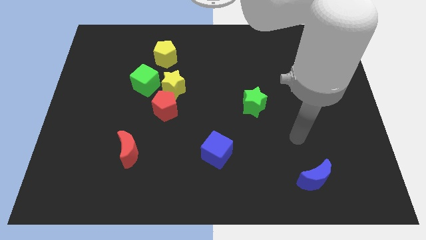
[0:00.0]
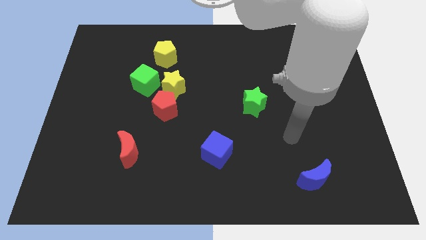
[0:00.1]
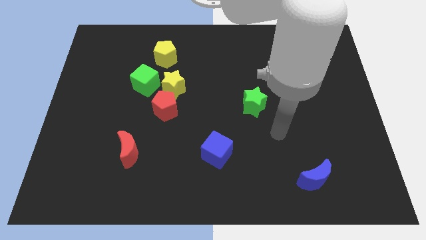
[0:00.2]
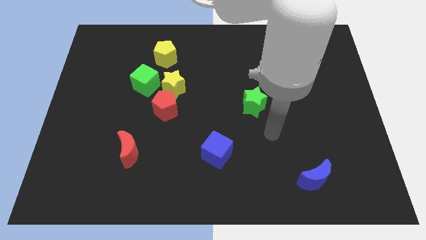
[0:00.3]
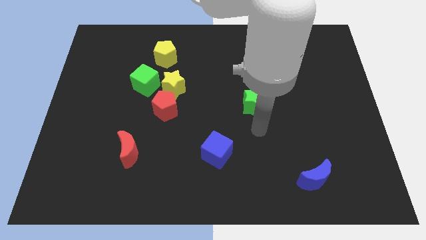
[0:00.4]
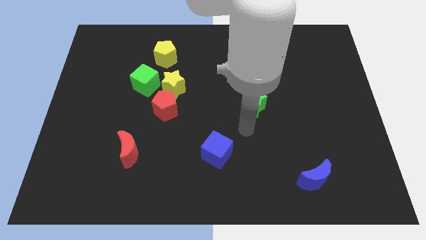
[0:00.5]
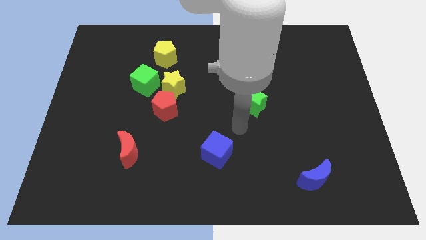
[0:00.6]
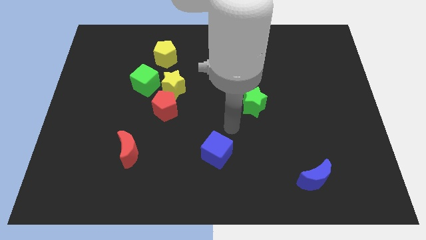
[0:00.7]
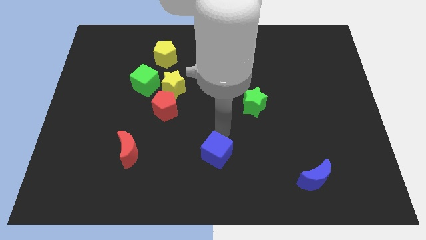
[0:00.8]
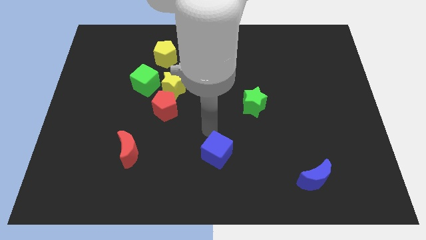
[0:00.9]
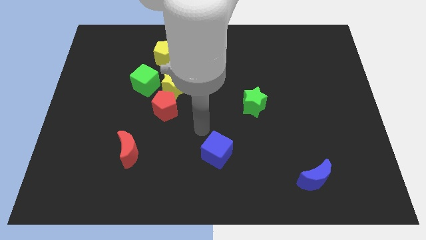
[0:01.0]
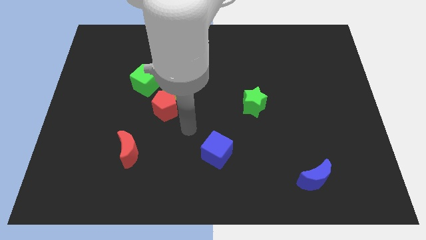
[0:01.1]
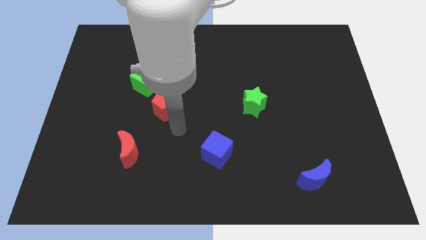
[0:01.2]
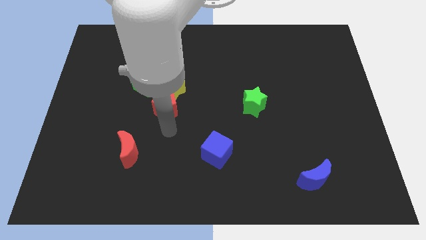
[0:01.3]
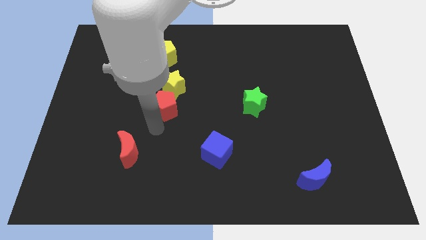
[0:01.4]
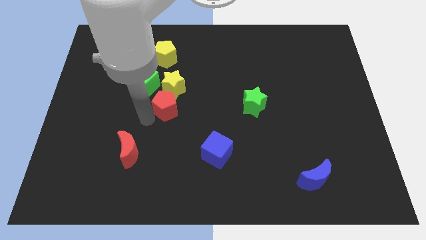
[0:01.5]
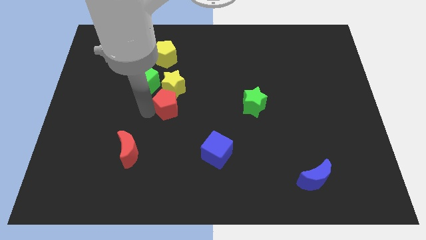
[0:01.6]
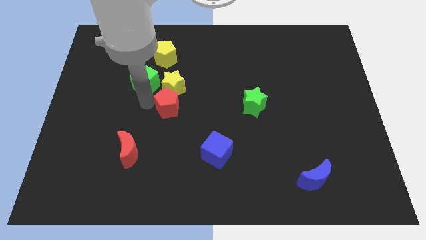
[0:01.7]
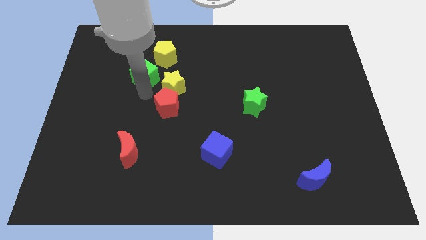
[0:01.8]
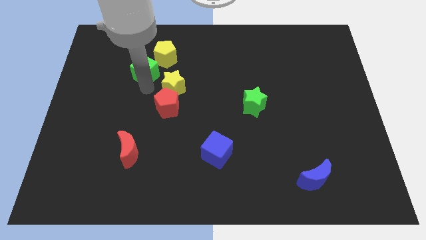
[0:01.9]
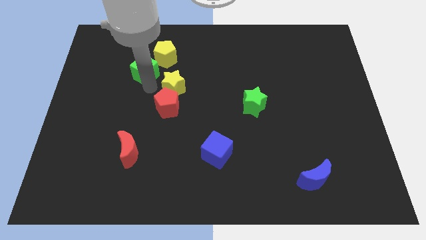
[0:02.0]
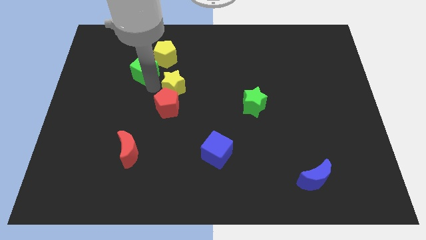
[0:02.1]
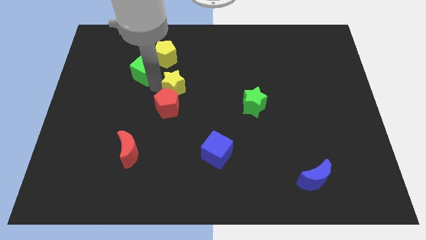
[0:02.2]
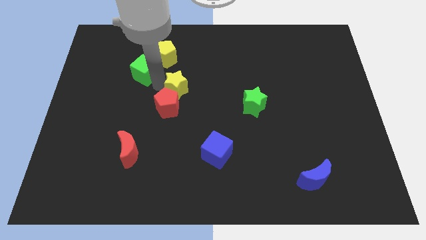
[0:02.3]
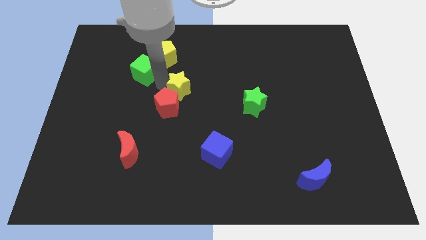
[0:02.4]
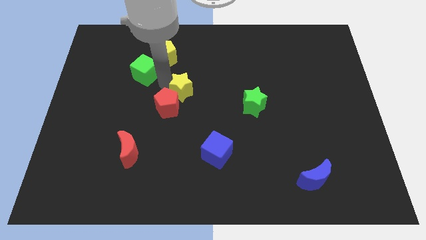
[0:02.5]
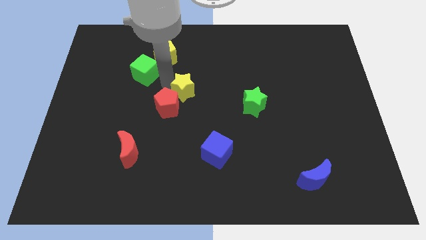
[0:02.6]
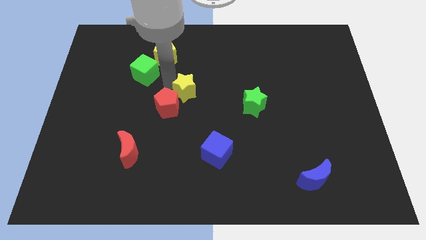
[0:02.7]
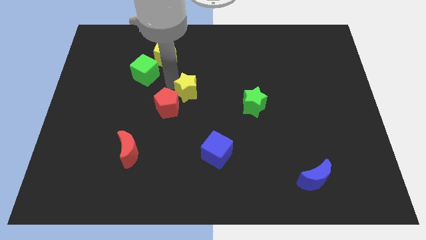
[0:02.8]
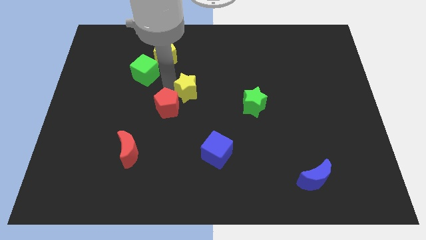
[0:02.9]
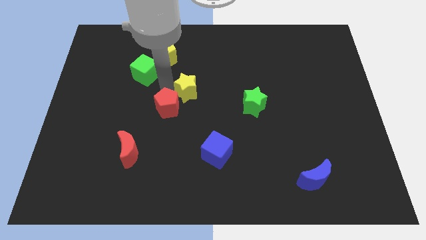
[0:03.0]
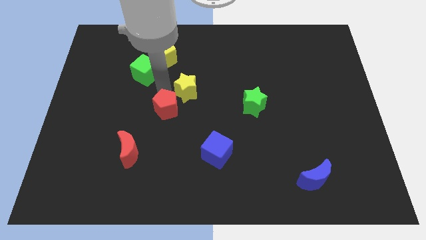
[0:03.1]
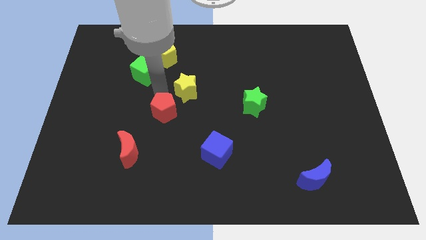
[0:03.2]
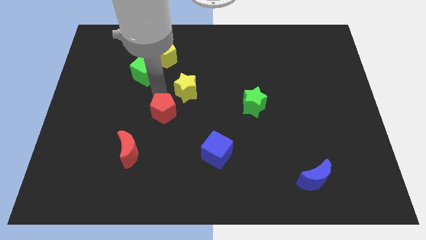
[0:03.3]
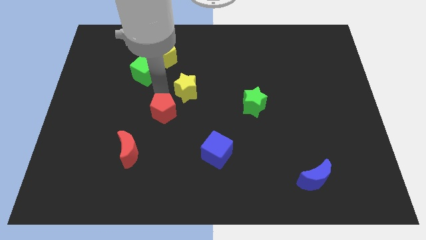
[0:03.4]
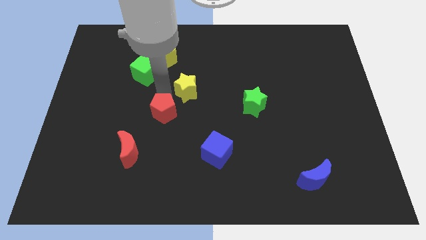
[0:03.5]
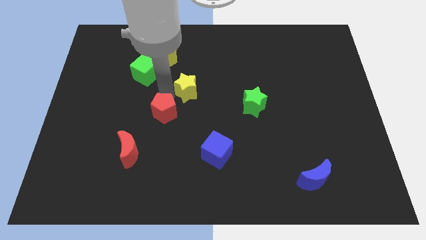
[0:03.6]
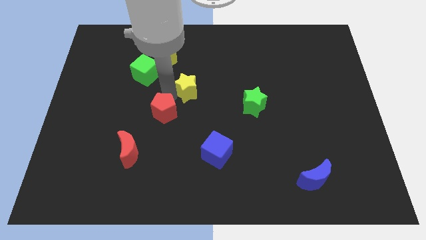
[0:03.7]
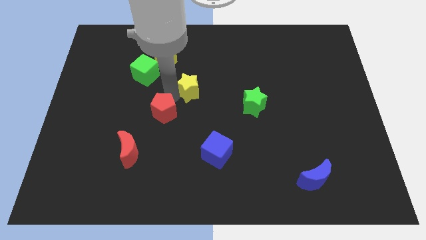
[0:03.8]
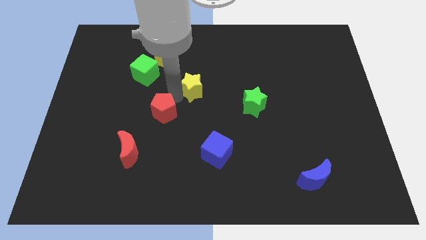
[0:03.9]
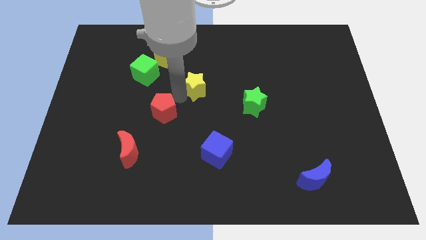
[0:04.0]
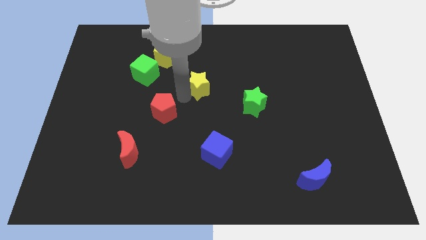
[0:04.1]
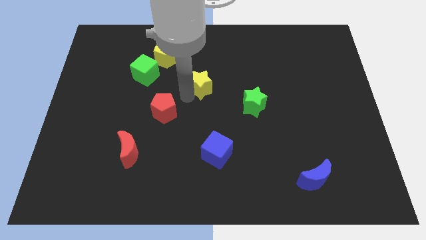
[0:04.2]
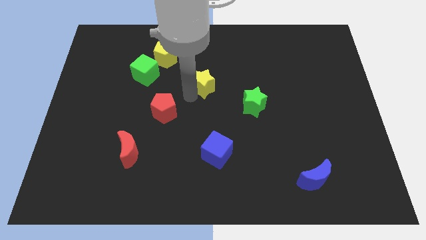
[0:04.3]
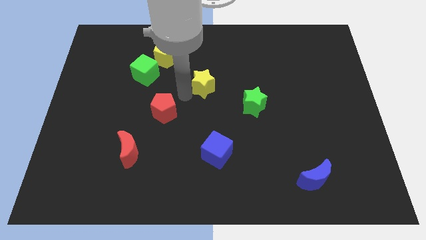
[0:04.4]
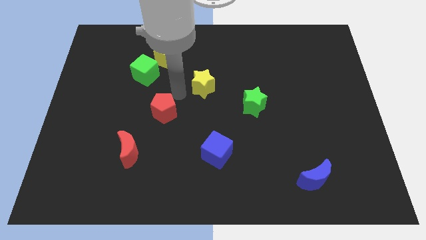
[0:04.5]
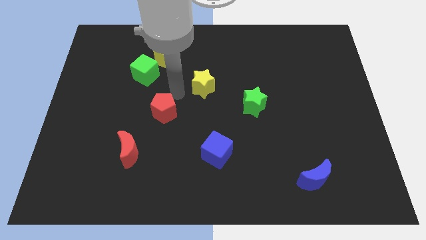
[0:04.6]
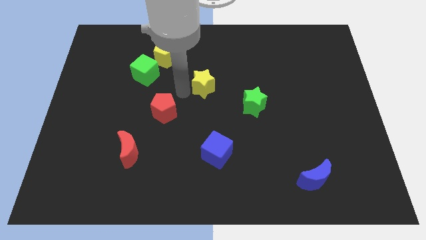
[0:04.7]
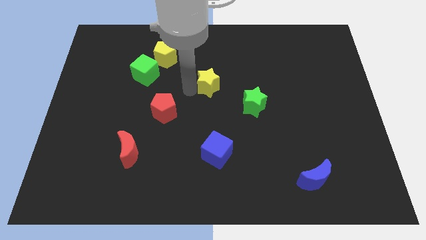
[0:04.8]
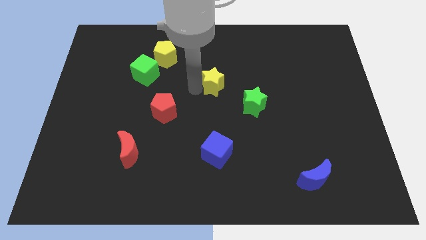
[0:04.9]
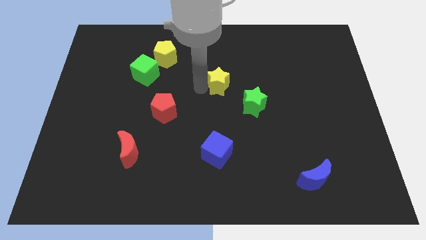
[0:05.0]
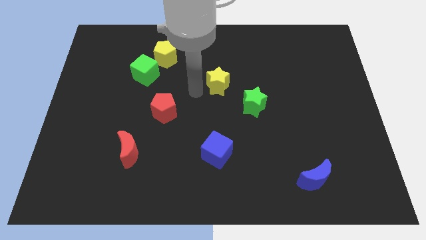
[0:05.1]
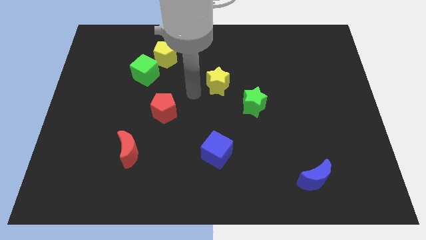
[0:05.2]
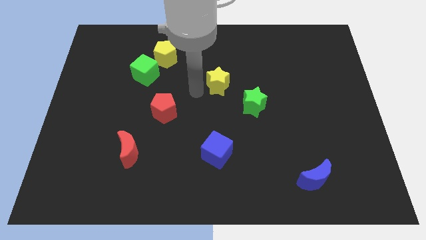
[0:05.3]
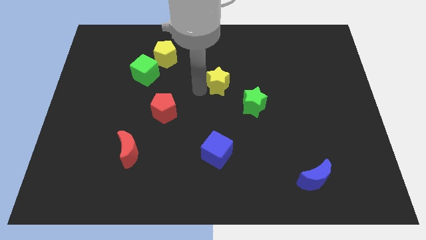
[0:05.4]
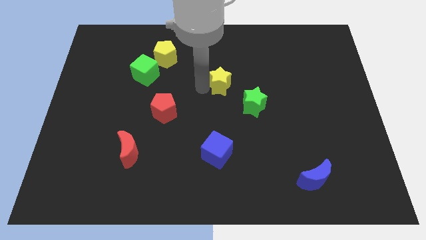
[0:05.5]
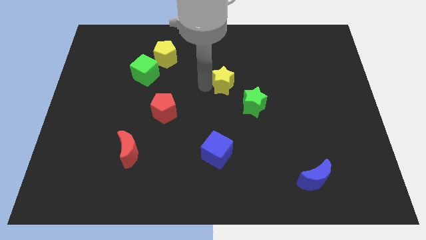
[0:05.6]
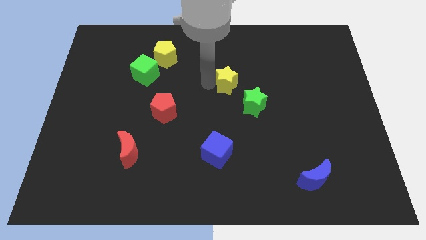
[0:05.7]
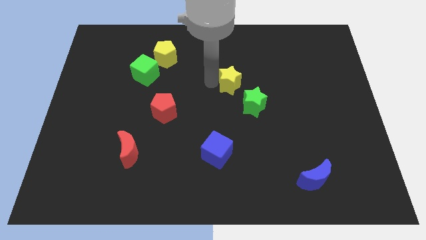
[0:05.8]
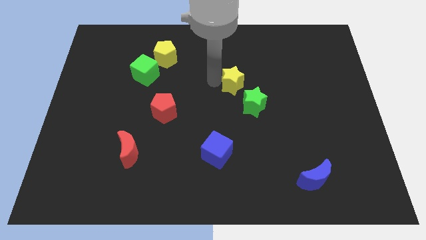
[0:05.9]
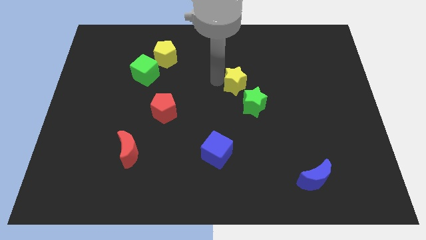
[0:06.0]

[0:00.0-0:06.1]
slide the yellow star above the green star

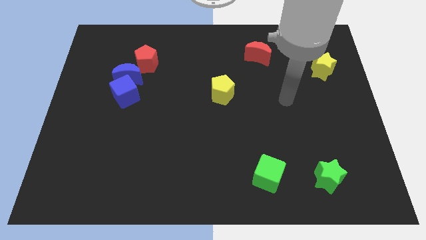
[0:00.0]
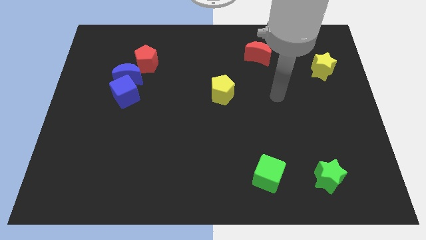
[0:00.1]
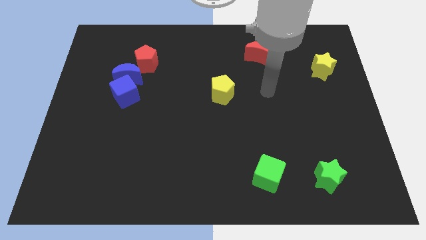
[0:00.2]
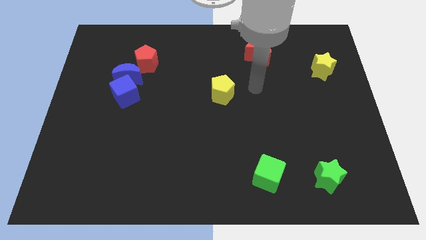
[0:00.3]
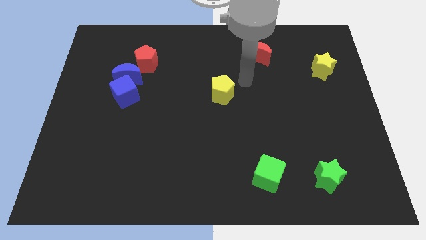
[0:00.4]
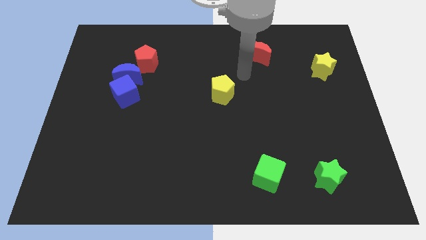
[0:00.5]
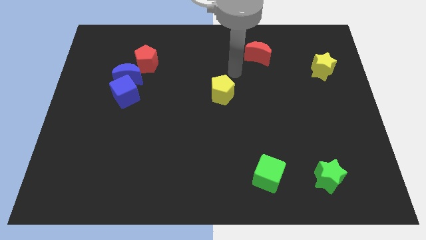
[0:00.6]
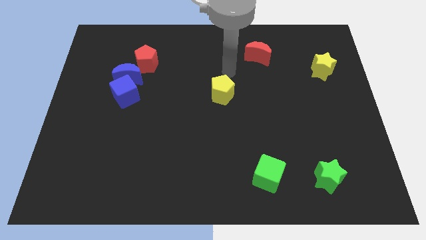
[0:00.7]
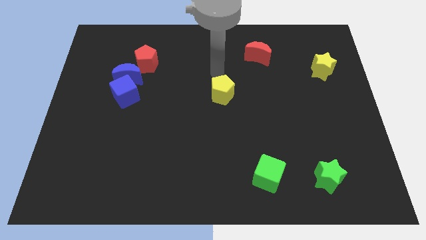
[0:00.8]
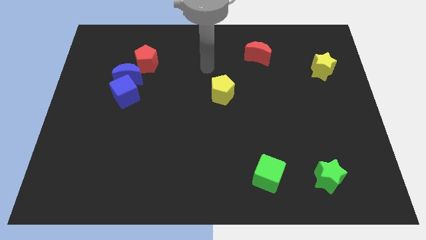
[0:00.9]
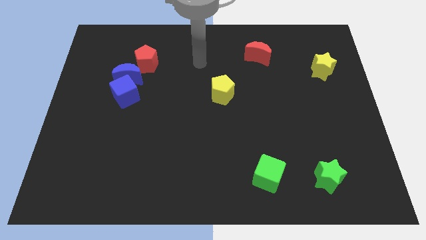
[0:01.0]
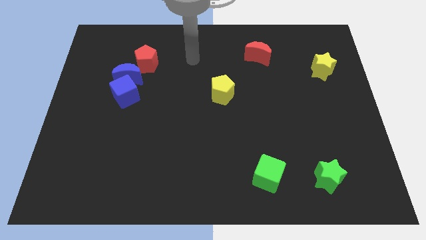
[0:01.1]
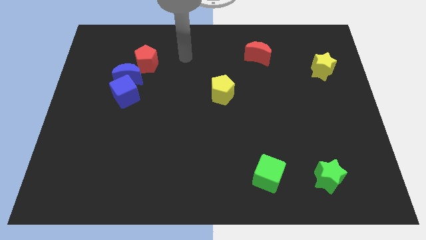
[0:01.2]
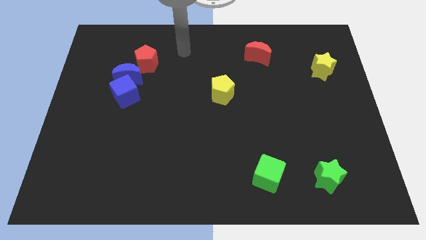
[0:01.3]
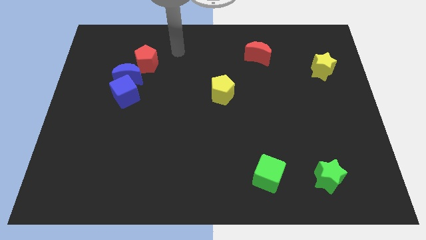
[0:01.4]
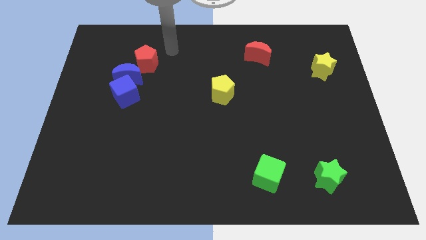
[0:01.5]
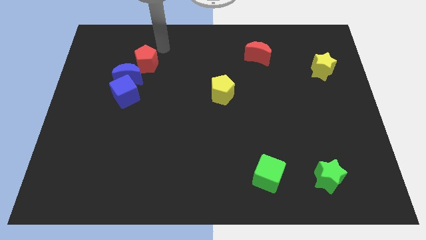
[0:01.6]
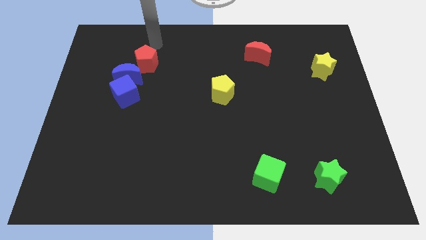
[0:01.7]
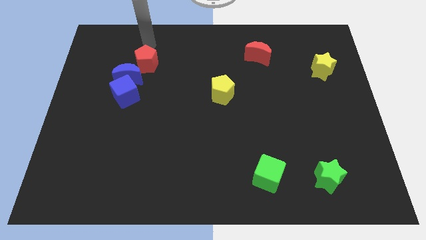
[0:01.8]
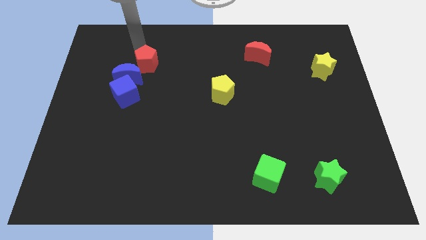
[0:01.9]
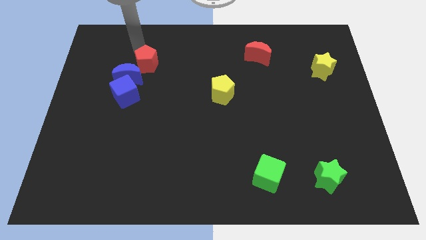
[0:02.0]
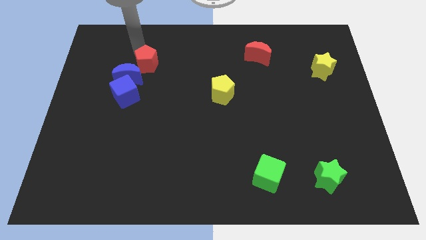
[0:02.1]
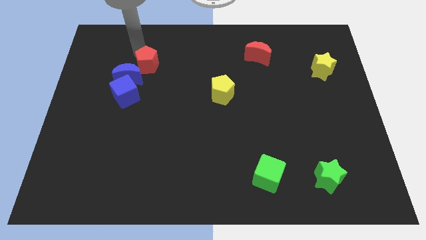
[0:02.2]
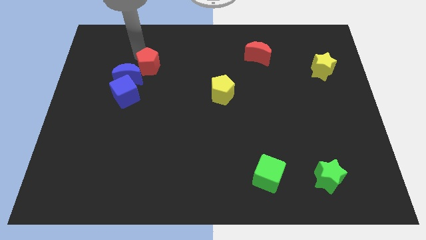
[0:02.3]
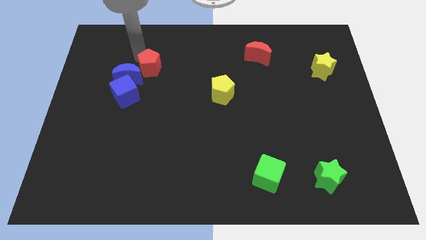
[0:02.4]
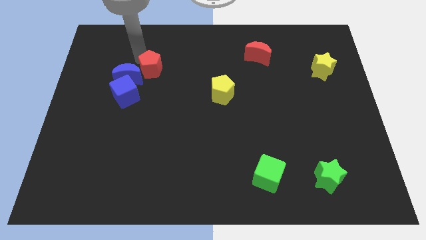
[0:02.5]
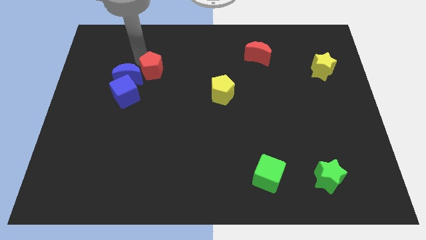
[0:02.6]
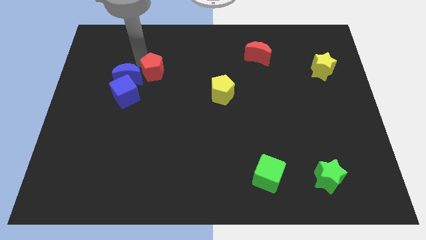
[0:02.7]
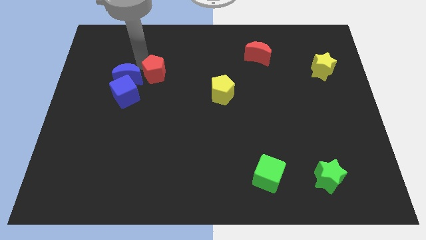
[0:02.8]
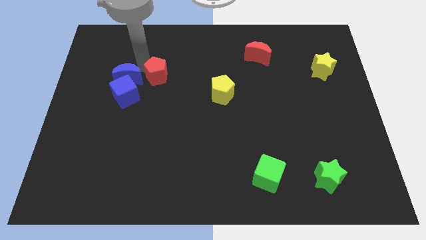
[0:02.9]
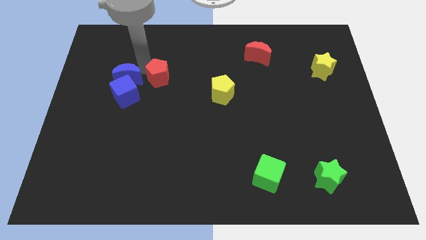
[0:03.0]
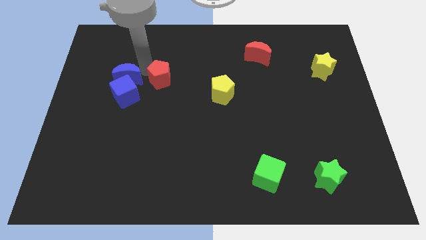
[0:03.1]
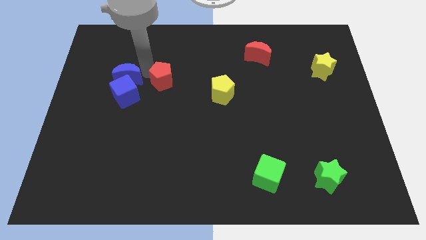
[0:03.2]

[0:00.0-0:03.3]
move the red pentagon to the right side of the blue cube
